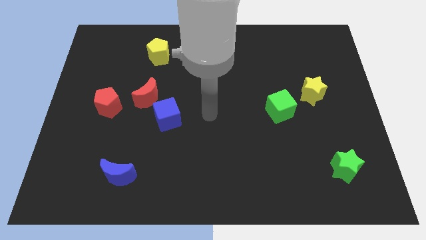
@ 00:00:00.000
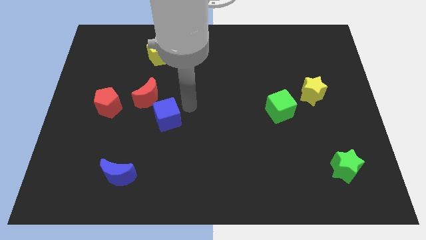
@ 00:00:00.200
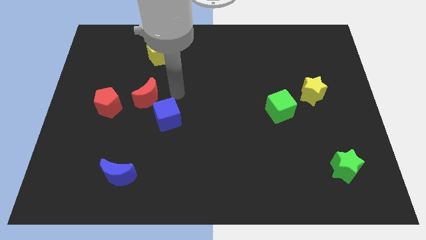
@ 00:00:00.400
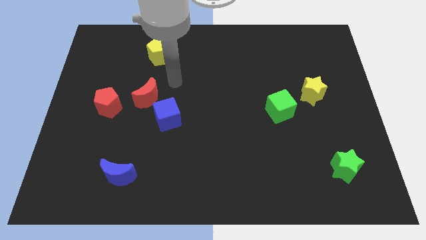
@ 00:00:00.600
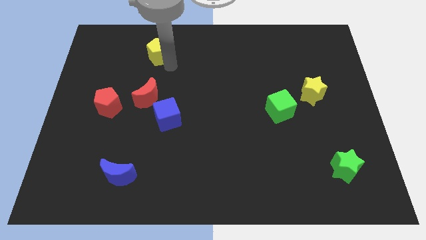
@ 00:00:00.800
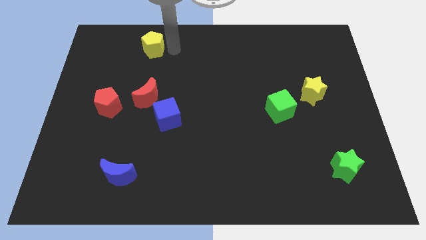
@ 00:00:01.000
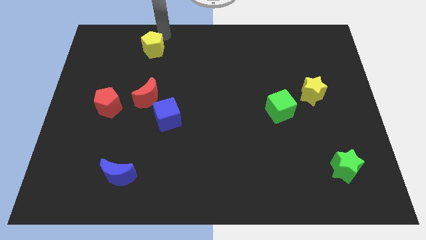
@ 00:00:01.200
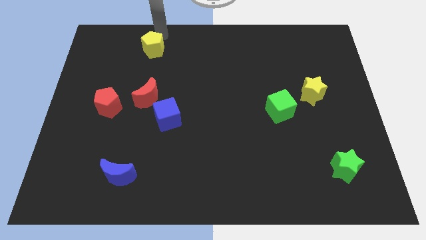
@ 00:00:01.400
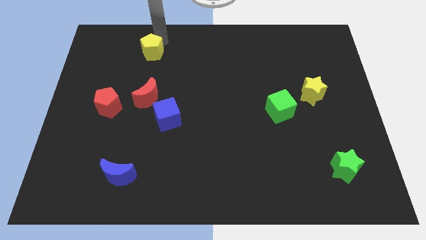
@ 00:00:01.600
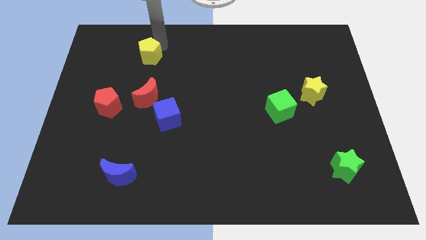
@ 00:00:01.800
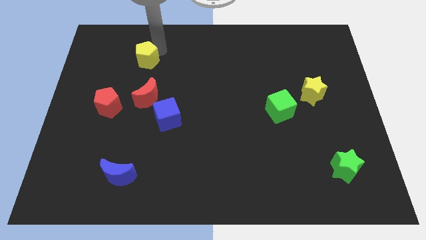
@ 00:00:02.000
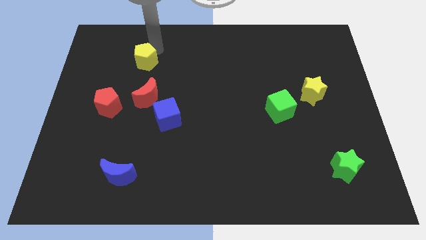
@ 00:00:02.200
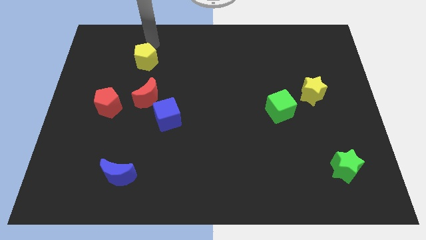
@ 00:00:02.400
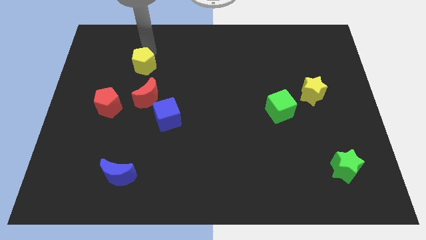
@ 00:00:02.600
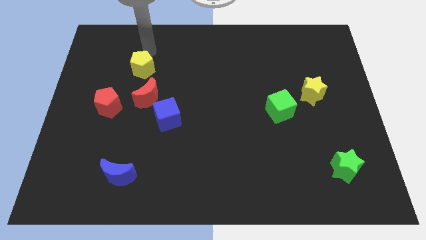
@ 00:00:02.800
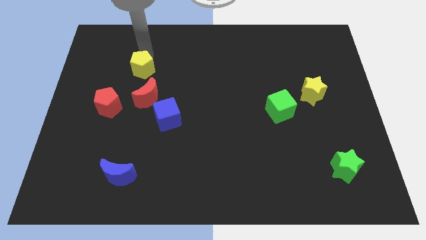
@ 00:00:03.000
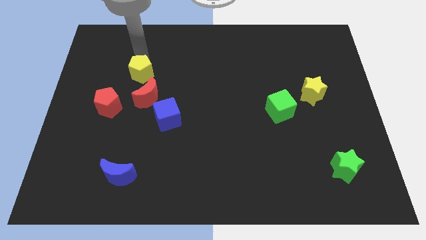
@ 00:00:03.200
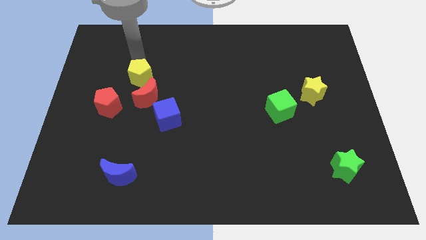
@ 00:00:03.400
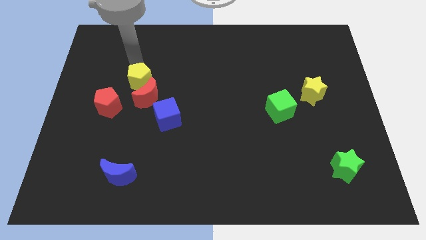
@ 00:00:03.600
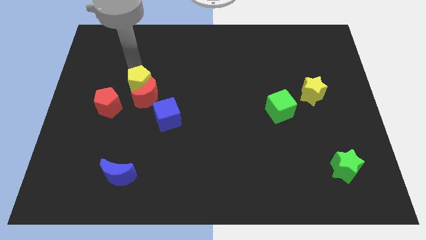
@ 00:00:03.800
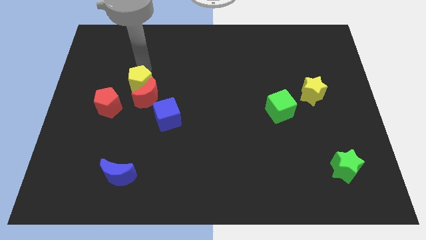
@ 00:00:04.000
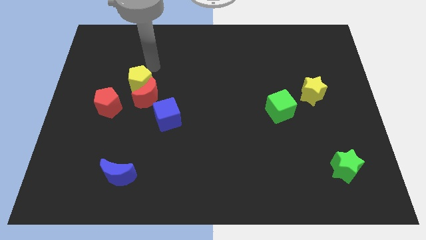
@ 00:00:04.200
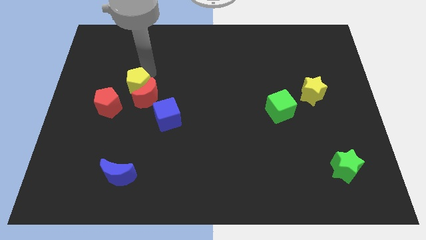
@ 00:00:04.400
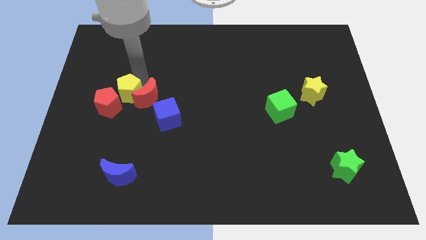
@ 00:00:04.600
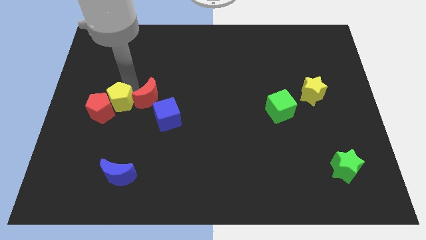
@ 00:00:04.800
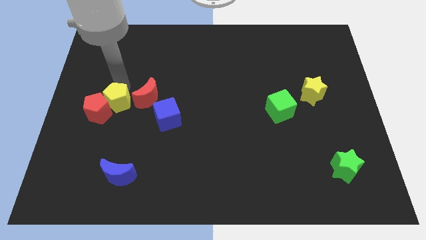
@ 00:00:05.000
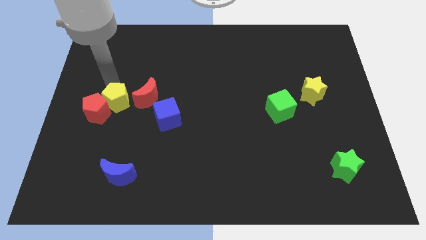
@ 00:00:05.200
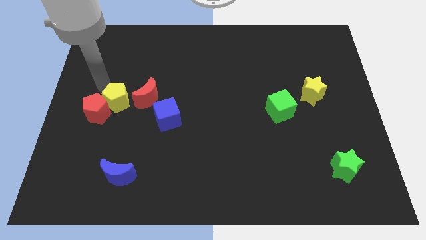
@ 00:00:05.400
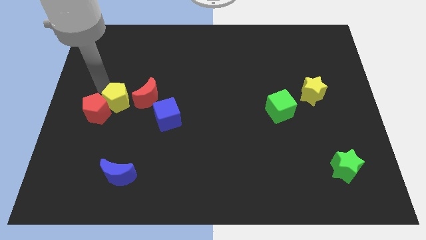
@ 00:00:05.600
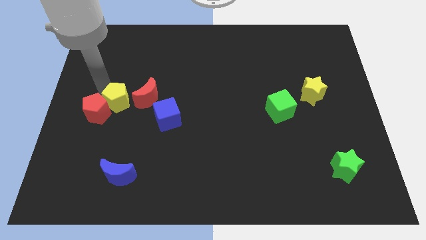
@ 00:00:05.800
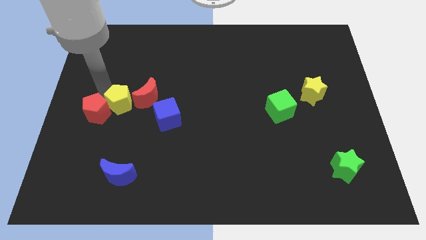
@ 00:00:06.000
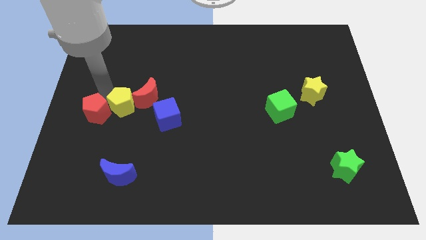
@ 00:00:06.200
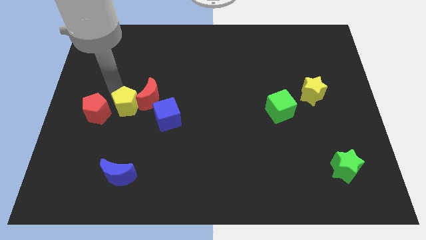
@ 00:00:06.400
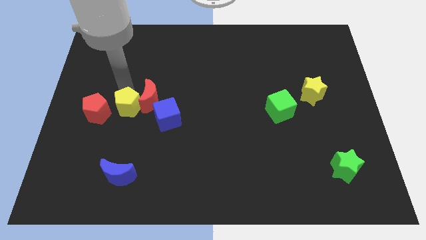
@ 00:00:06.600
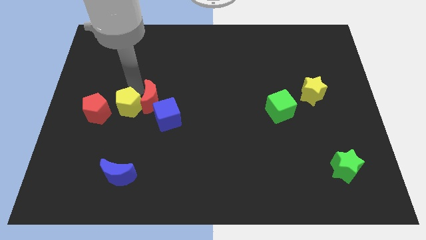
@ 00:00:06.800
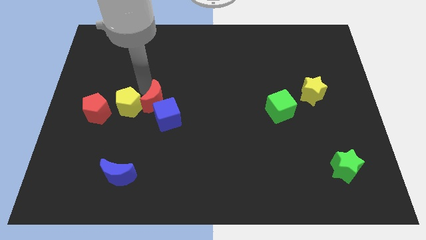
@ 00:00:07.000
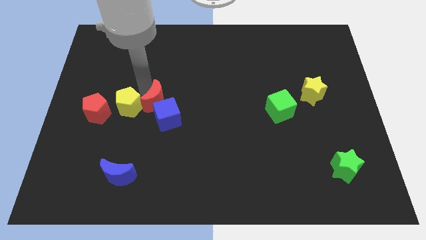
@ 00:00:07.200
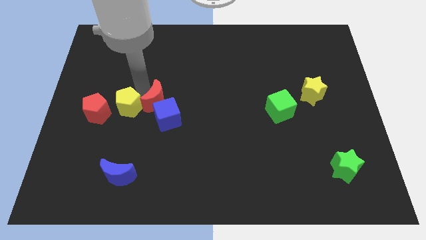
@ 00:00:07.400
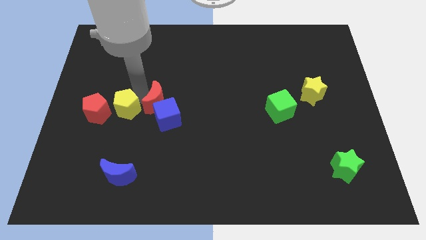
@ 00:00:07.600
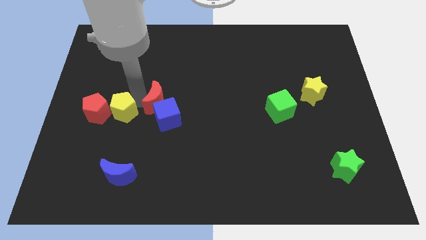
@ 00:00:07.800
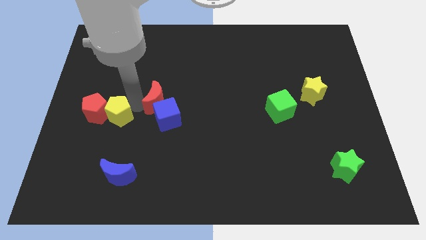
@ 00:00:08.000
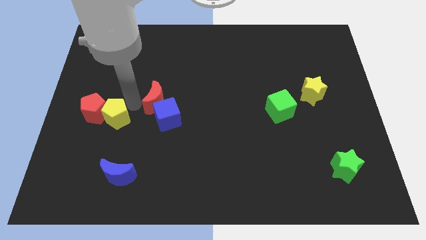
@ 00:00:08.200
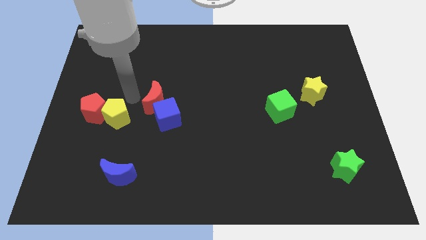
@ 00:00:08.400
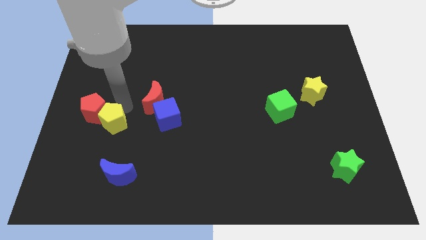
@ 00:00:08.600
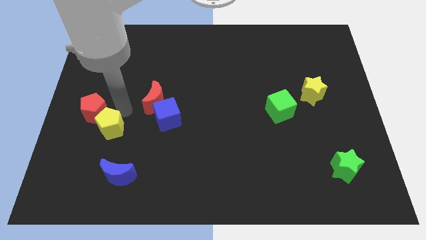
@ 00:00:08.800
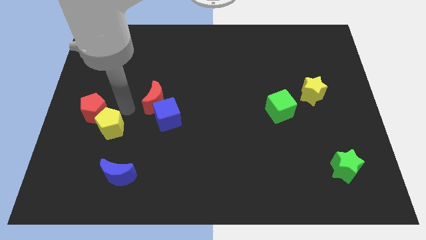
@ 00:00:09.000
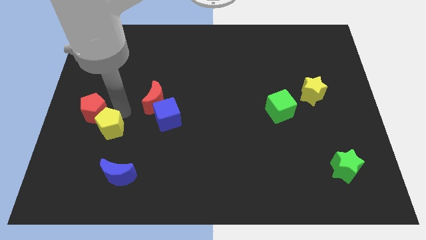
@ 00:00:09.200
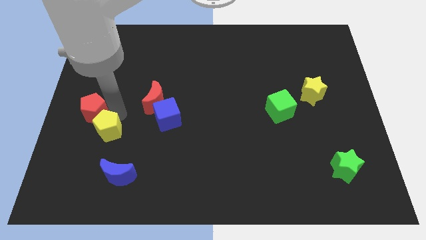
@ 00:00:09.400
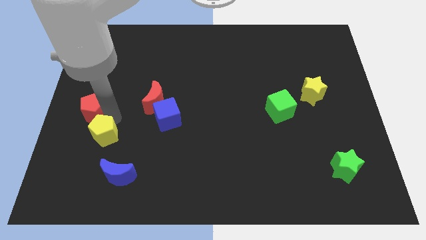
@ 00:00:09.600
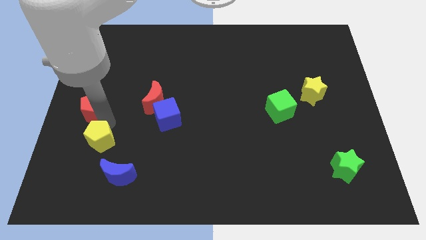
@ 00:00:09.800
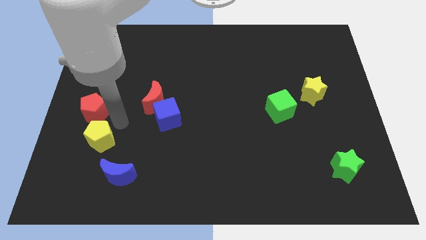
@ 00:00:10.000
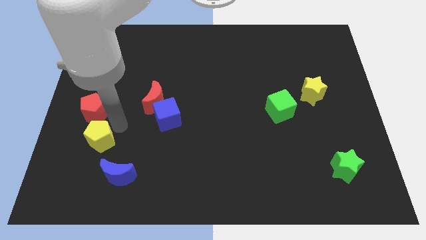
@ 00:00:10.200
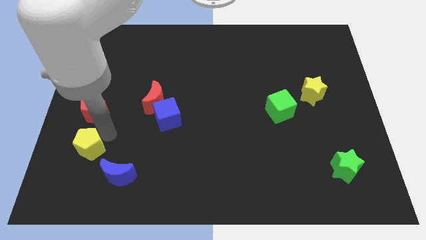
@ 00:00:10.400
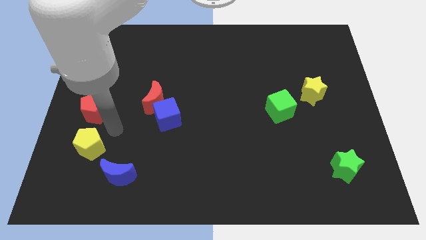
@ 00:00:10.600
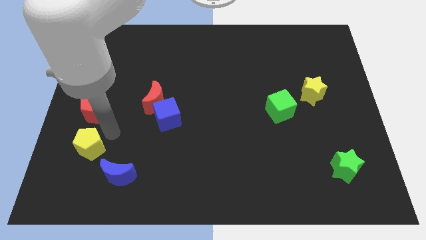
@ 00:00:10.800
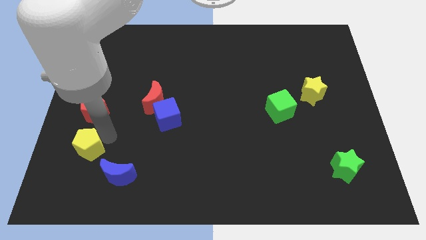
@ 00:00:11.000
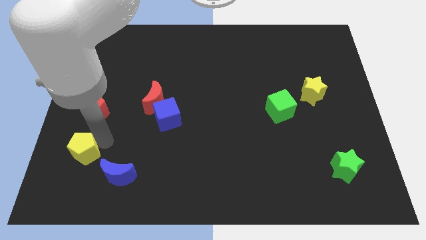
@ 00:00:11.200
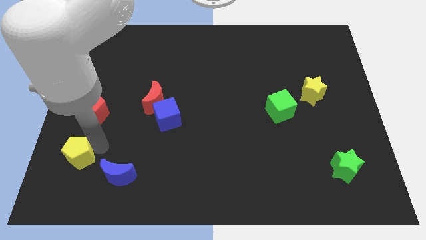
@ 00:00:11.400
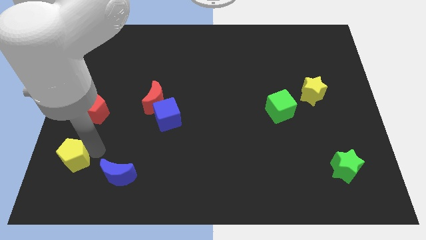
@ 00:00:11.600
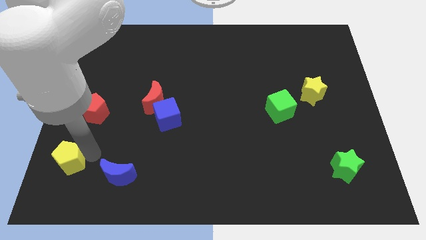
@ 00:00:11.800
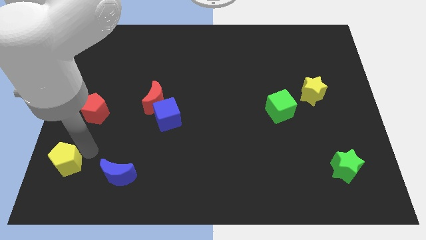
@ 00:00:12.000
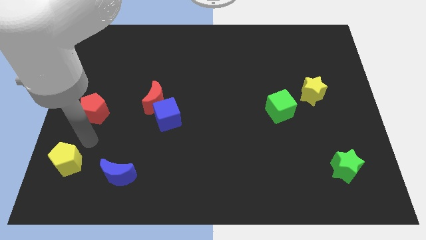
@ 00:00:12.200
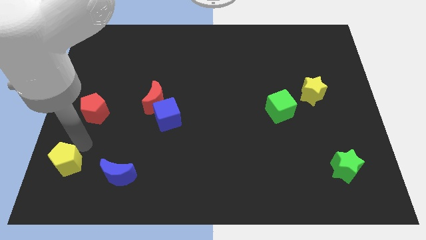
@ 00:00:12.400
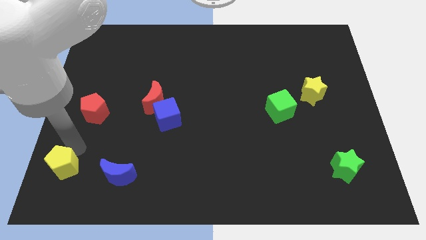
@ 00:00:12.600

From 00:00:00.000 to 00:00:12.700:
put the yellow pentagon to the lower left corner

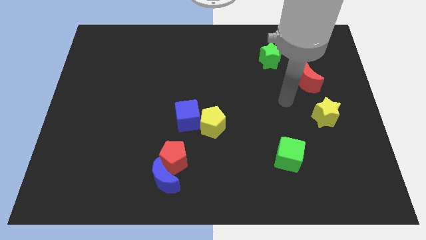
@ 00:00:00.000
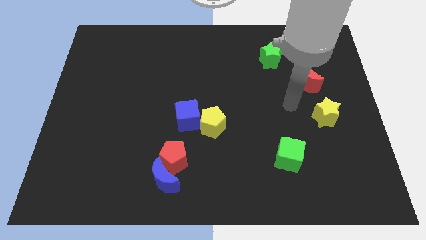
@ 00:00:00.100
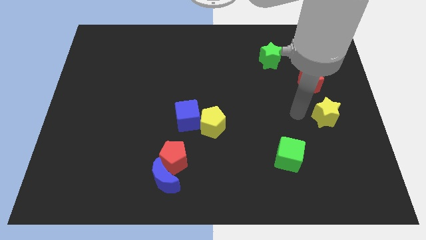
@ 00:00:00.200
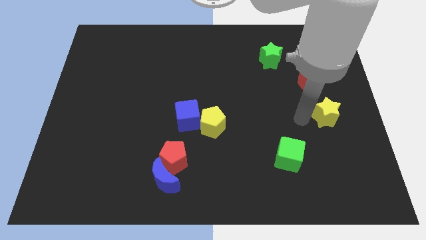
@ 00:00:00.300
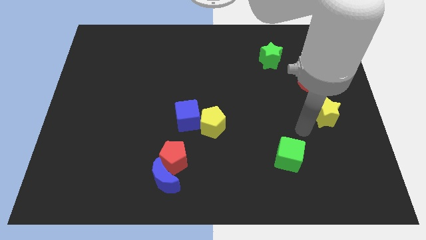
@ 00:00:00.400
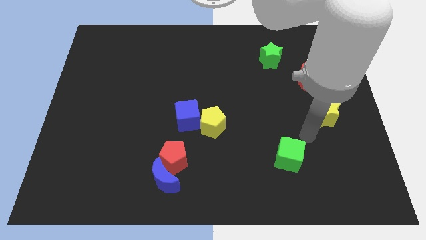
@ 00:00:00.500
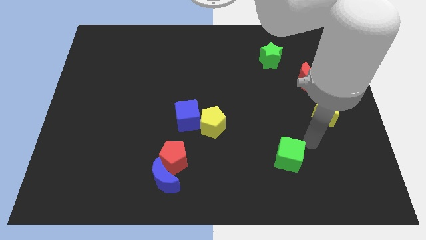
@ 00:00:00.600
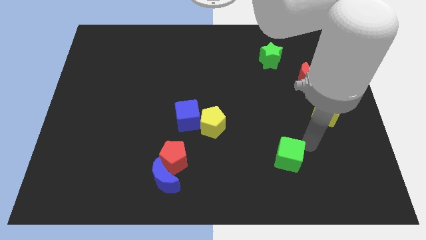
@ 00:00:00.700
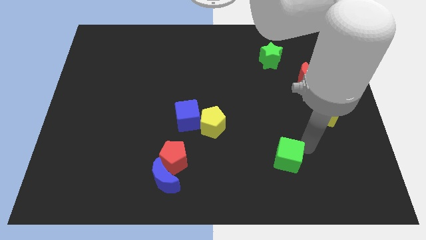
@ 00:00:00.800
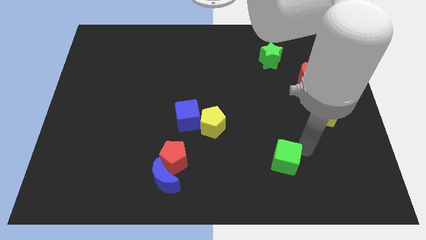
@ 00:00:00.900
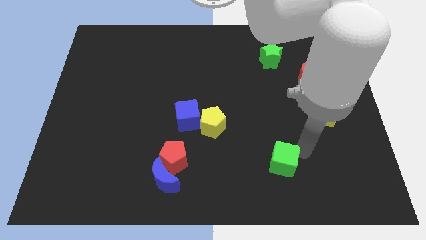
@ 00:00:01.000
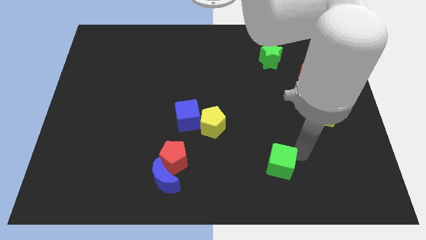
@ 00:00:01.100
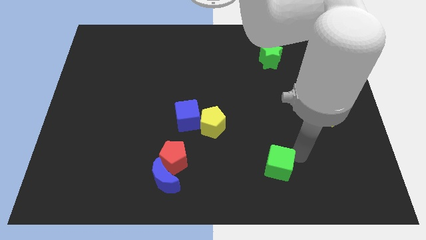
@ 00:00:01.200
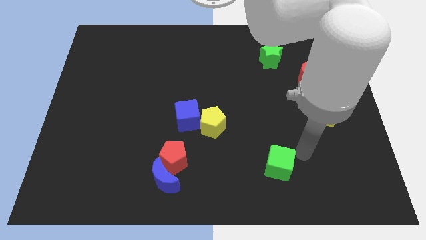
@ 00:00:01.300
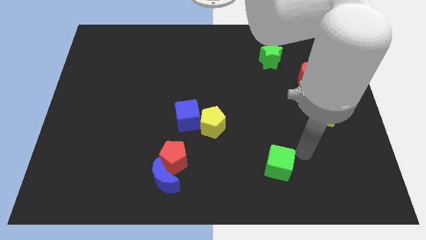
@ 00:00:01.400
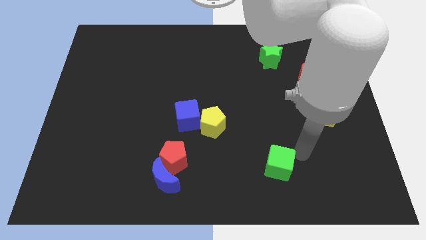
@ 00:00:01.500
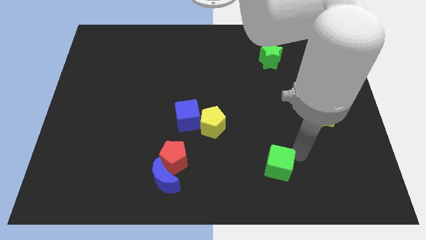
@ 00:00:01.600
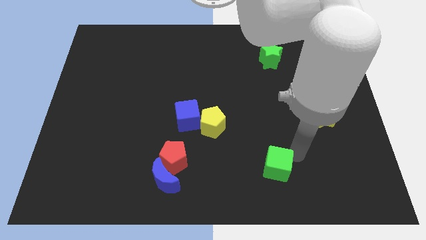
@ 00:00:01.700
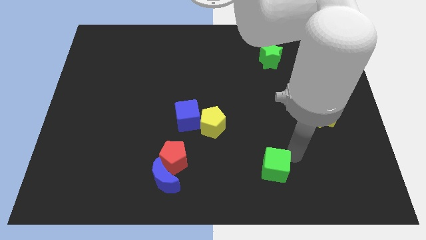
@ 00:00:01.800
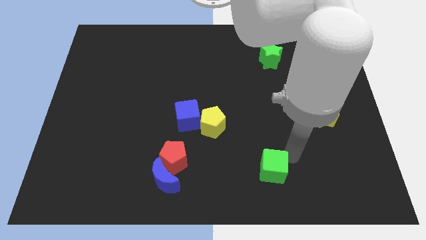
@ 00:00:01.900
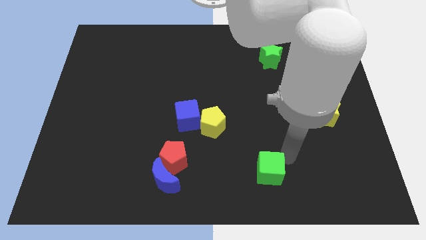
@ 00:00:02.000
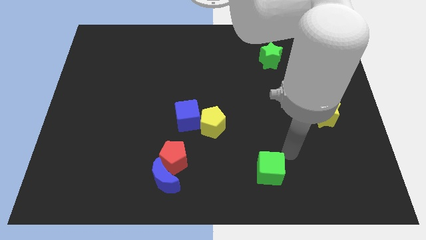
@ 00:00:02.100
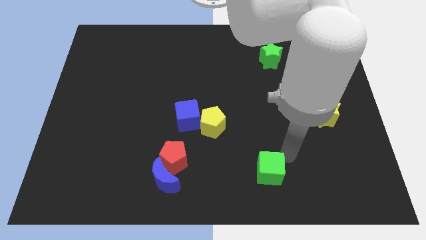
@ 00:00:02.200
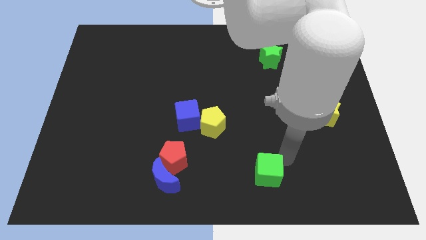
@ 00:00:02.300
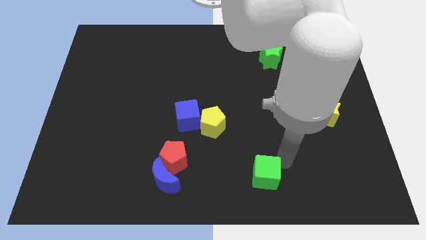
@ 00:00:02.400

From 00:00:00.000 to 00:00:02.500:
push the green cube to the bottom
